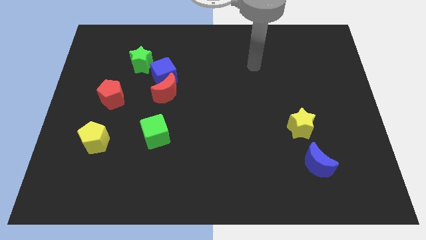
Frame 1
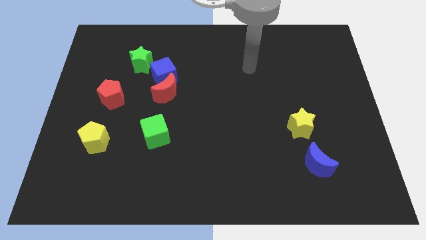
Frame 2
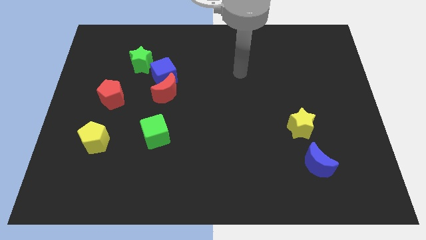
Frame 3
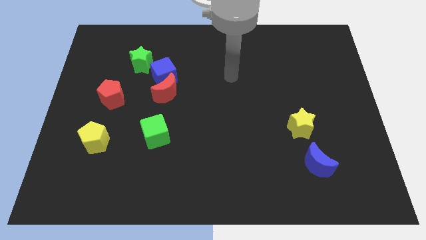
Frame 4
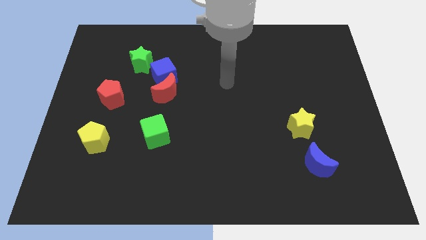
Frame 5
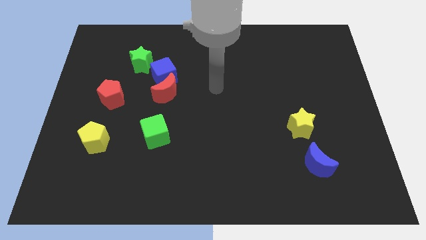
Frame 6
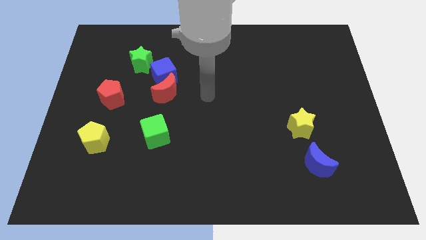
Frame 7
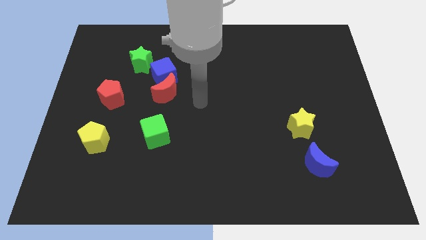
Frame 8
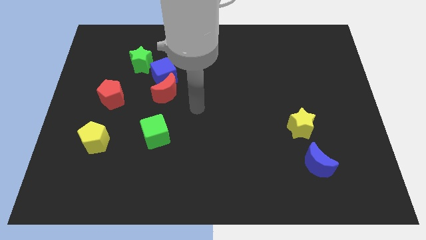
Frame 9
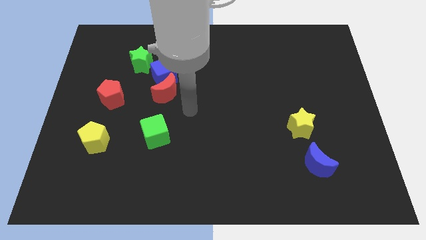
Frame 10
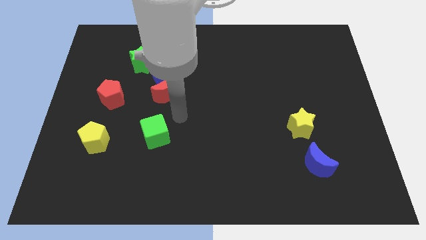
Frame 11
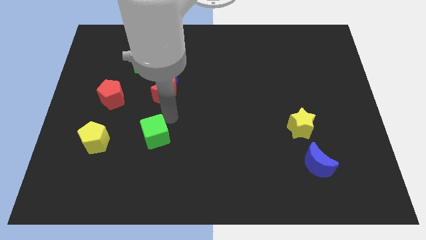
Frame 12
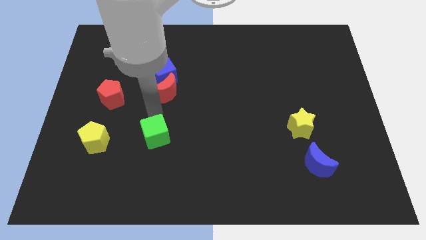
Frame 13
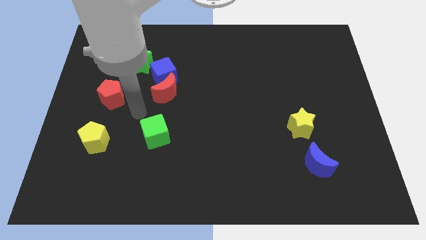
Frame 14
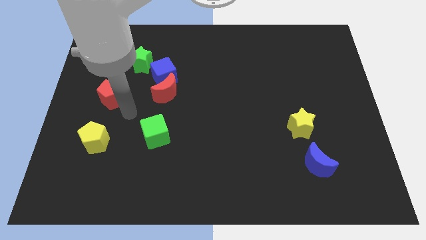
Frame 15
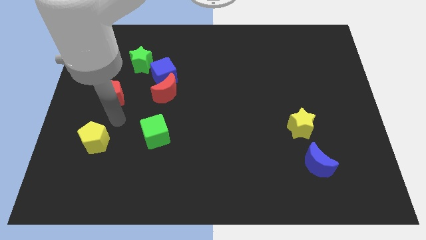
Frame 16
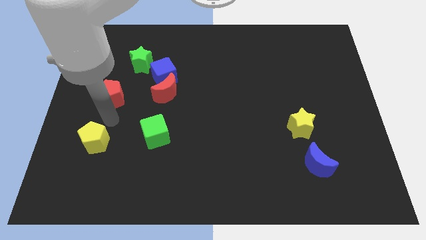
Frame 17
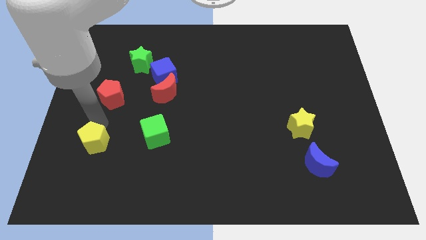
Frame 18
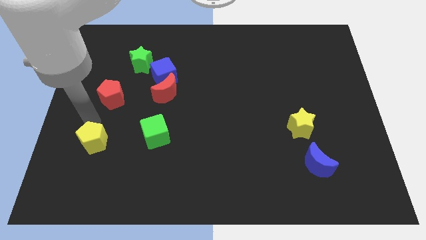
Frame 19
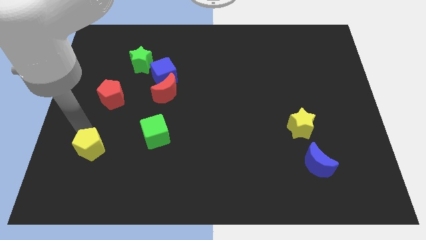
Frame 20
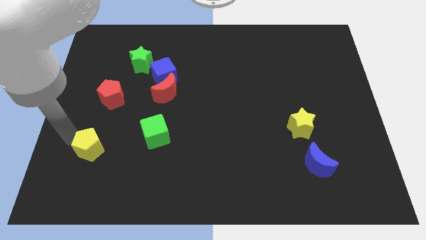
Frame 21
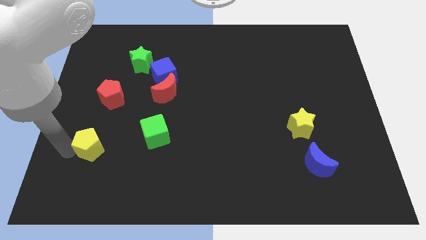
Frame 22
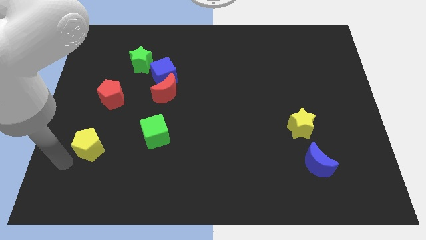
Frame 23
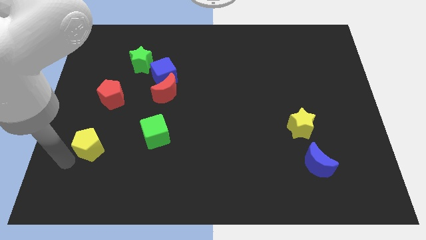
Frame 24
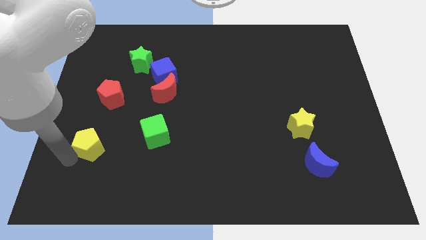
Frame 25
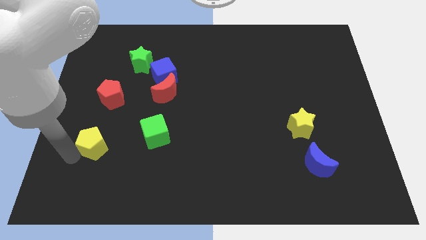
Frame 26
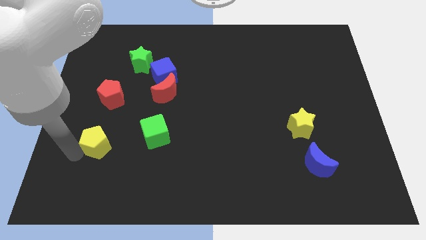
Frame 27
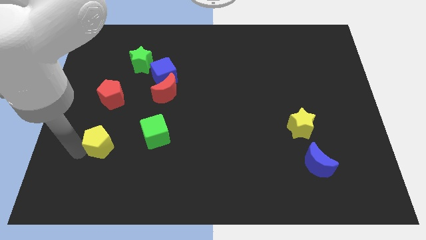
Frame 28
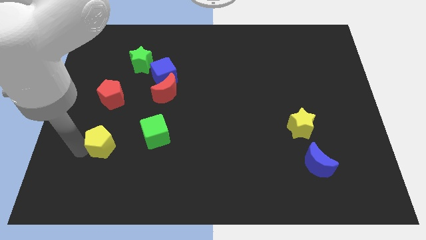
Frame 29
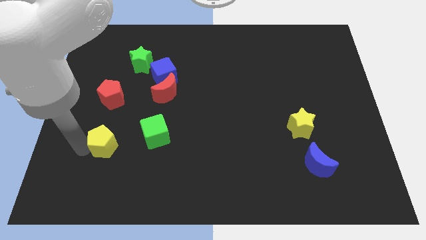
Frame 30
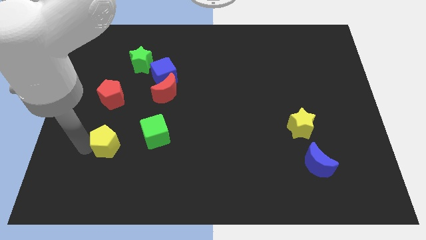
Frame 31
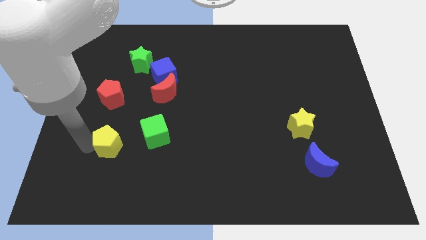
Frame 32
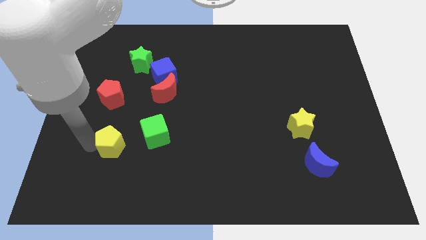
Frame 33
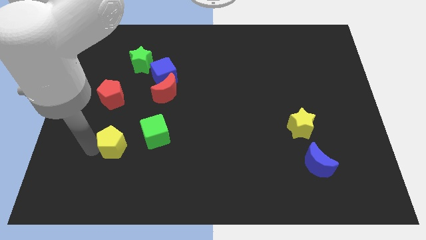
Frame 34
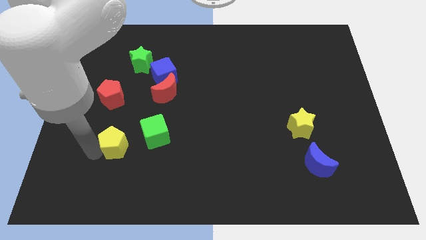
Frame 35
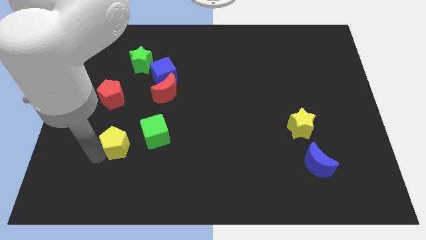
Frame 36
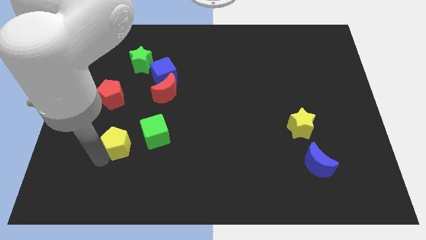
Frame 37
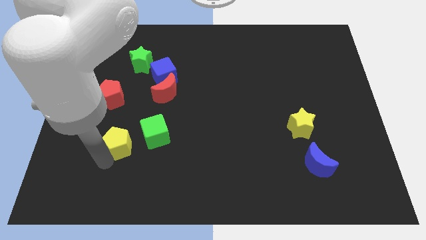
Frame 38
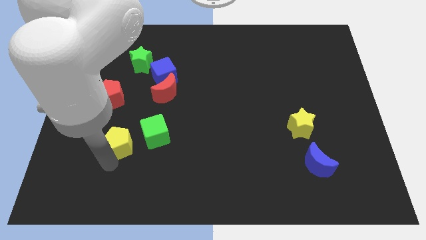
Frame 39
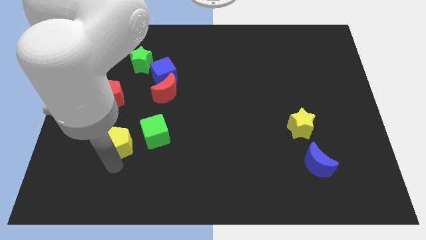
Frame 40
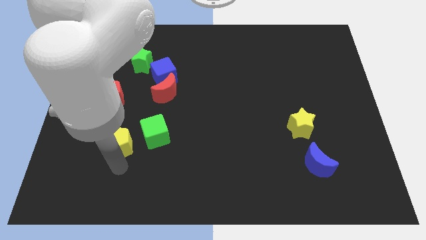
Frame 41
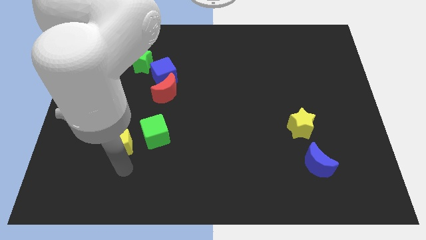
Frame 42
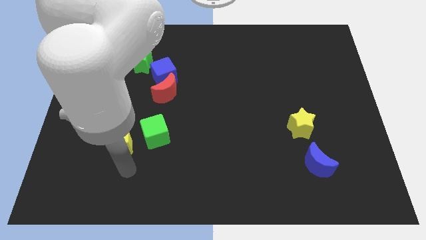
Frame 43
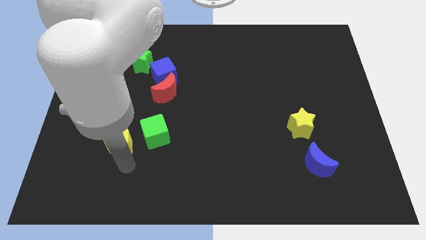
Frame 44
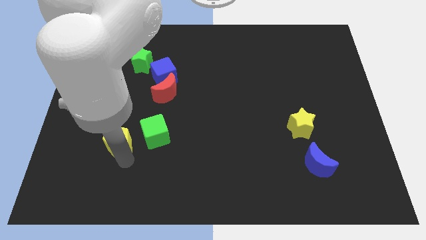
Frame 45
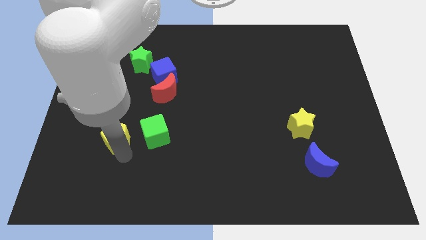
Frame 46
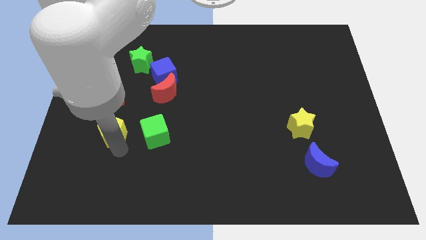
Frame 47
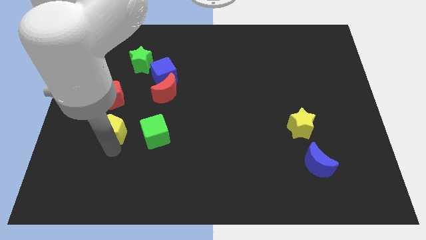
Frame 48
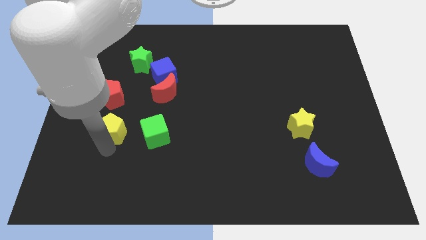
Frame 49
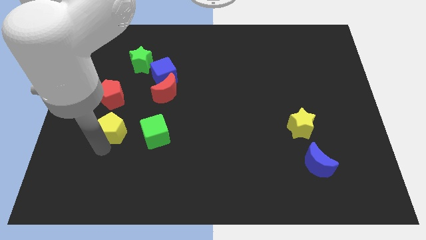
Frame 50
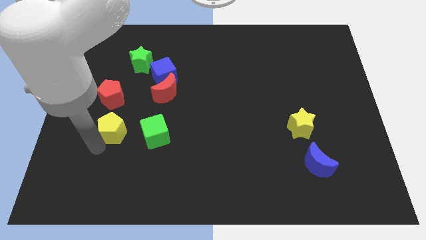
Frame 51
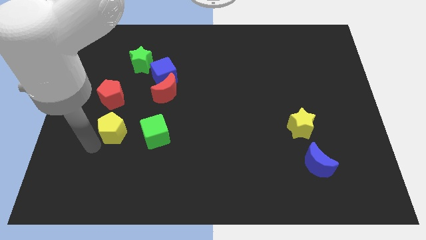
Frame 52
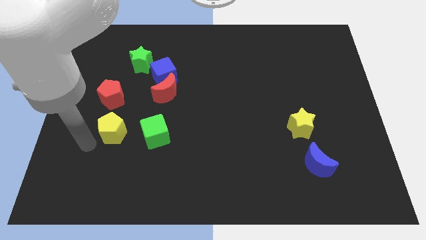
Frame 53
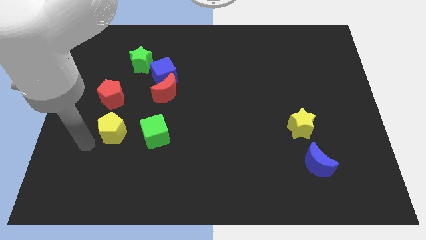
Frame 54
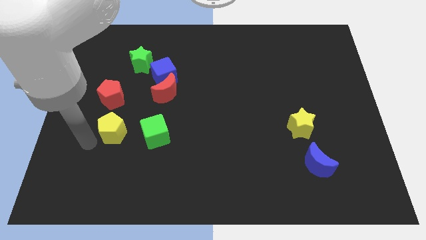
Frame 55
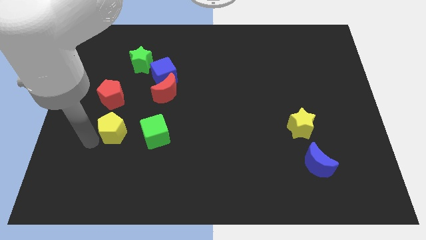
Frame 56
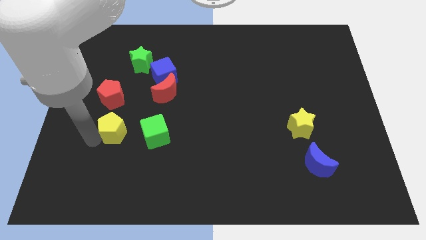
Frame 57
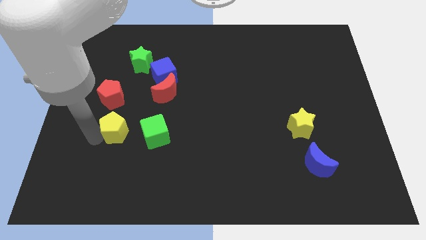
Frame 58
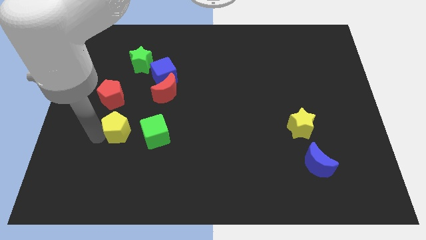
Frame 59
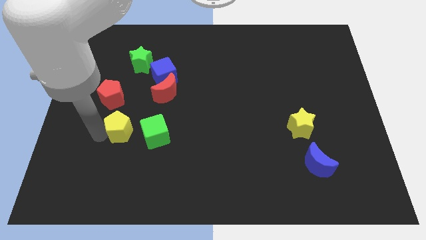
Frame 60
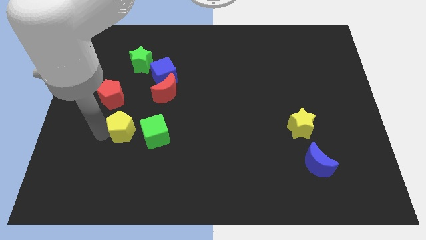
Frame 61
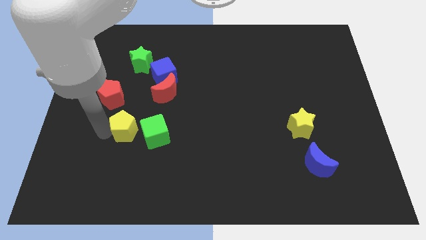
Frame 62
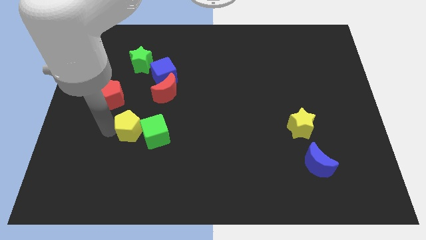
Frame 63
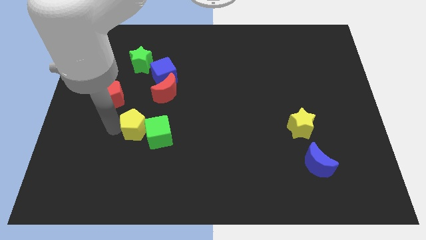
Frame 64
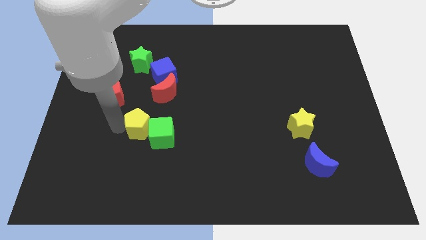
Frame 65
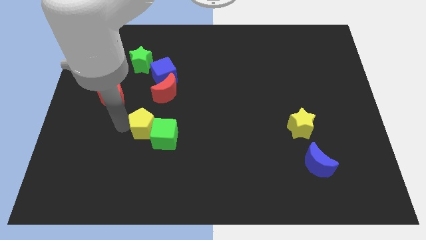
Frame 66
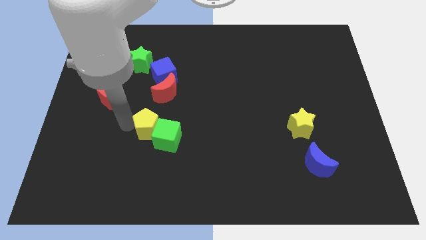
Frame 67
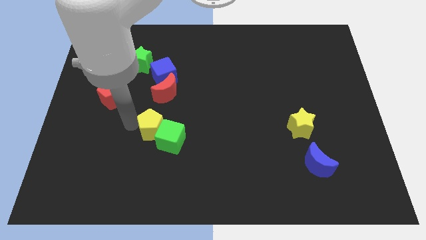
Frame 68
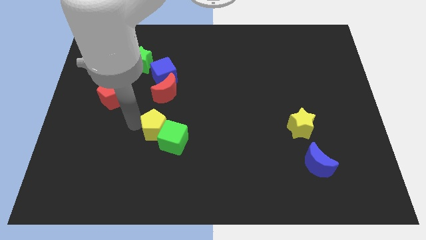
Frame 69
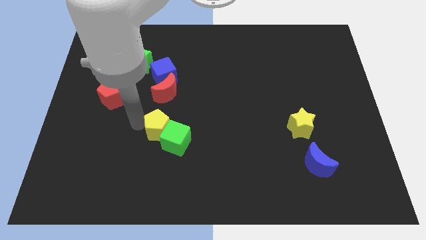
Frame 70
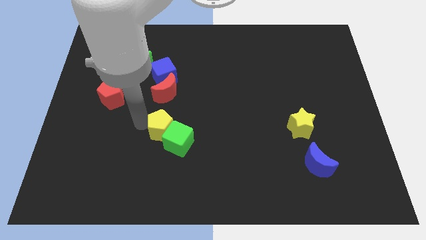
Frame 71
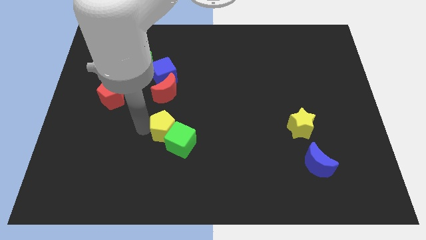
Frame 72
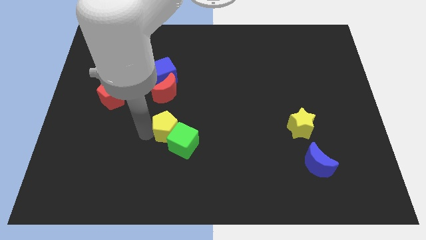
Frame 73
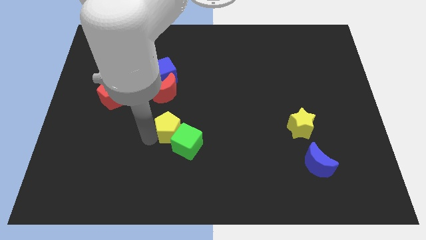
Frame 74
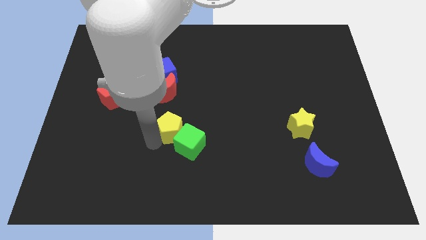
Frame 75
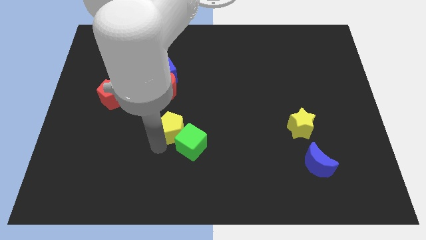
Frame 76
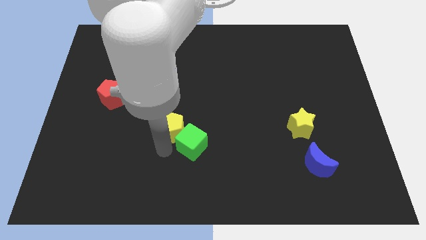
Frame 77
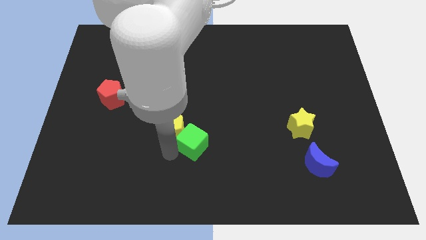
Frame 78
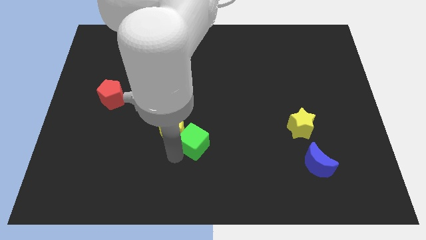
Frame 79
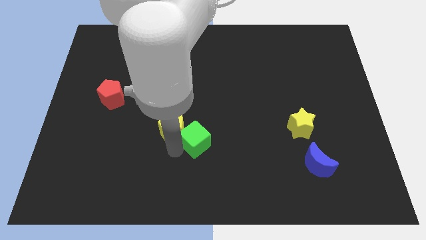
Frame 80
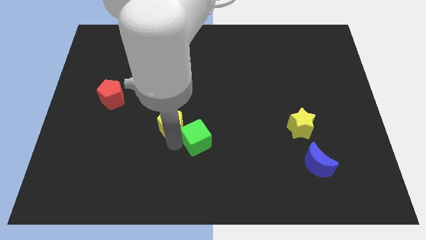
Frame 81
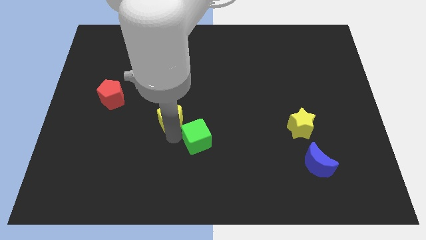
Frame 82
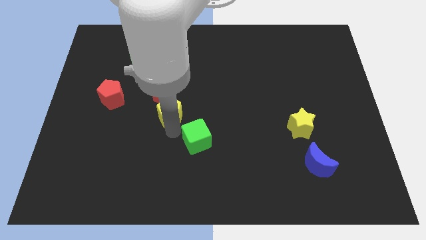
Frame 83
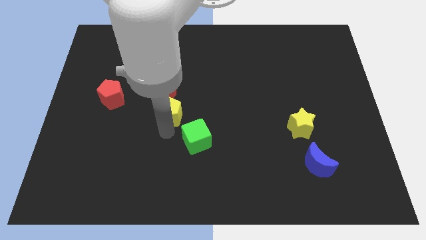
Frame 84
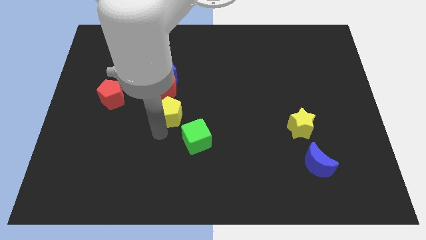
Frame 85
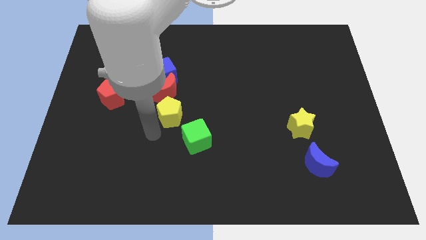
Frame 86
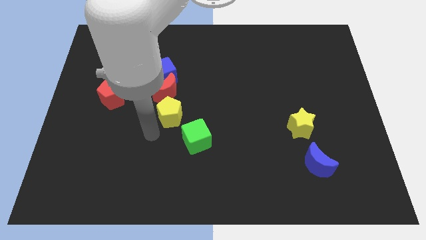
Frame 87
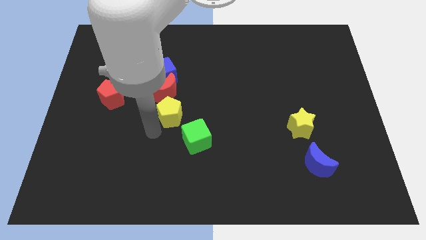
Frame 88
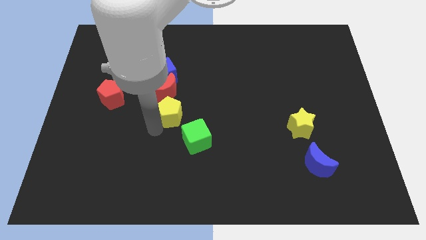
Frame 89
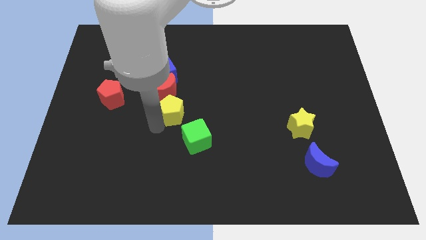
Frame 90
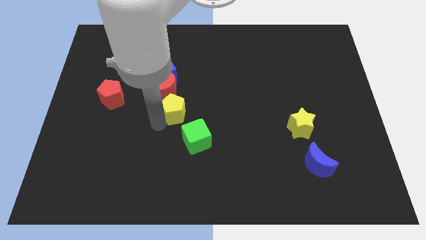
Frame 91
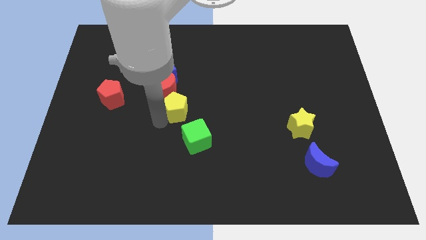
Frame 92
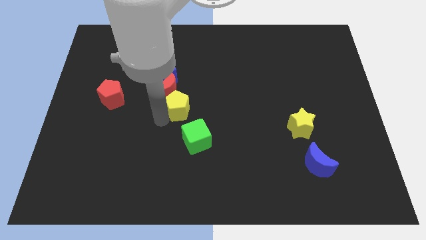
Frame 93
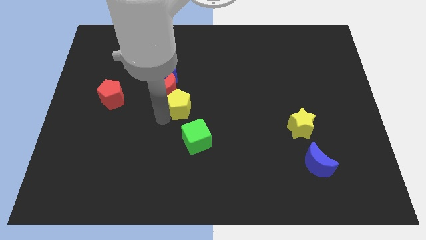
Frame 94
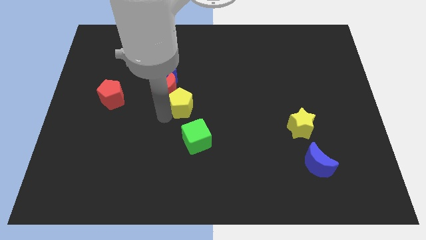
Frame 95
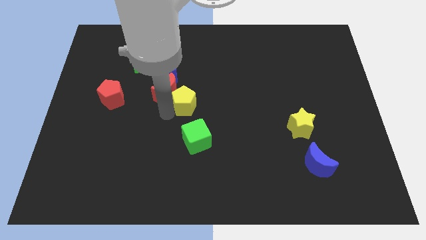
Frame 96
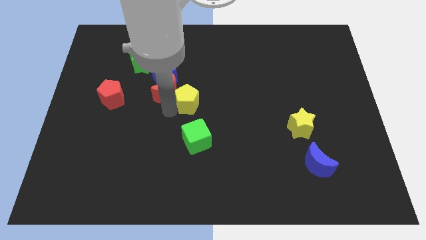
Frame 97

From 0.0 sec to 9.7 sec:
slide the yellow pentagon upwards and to the right diagonally
